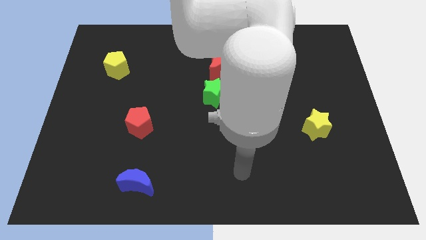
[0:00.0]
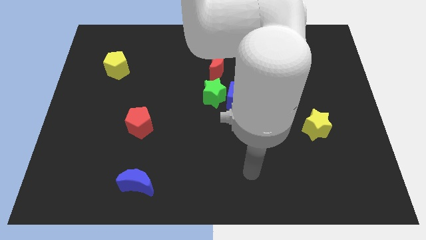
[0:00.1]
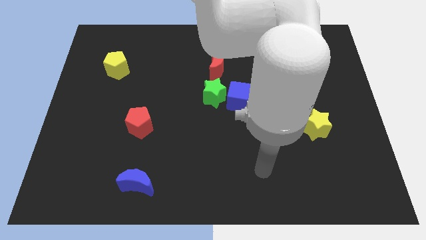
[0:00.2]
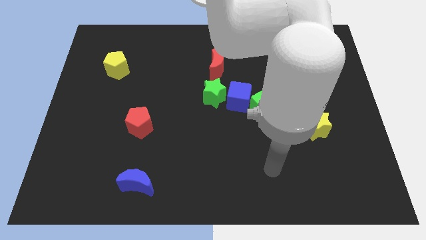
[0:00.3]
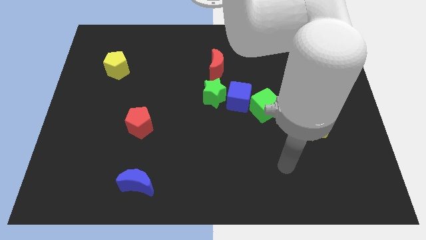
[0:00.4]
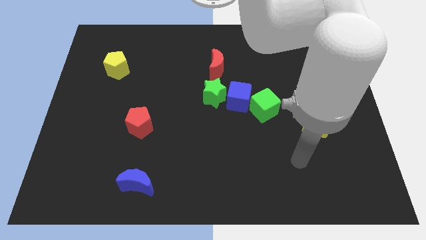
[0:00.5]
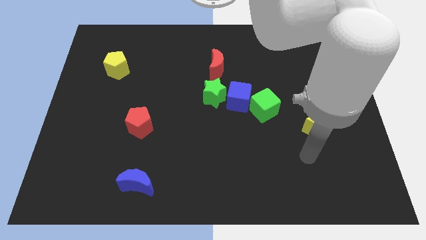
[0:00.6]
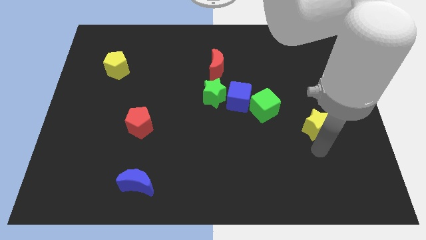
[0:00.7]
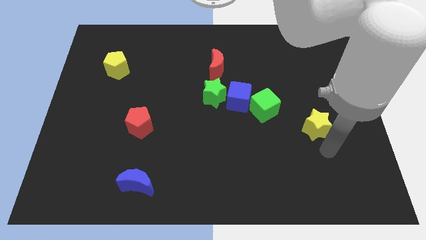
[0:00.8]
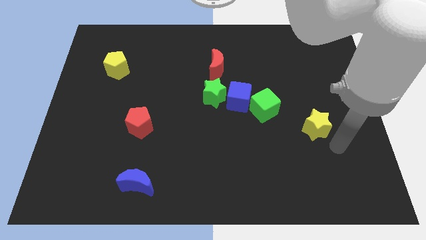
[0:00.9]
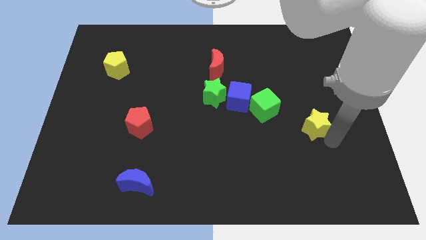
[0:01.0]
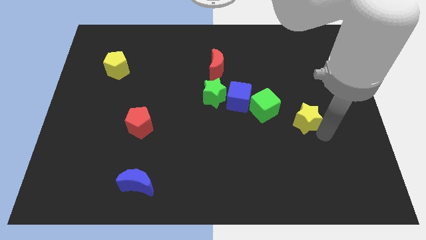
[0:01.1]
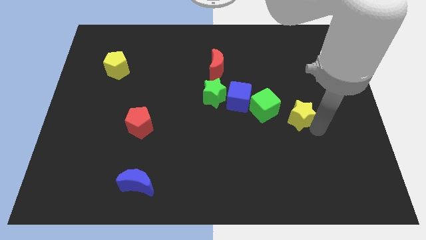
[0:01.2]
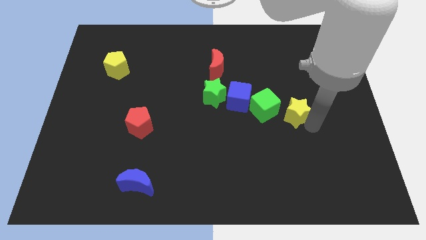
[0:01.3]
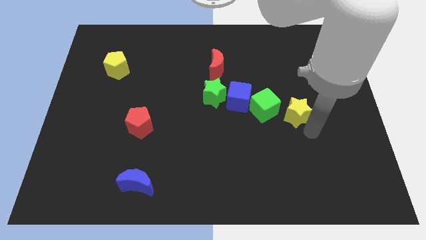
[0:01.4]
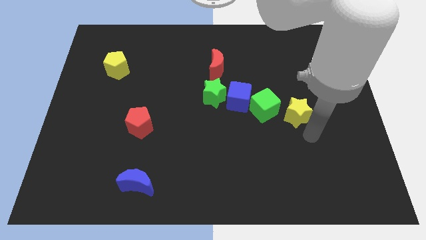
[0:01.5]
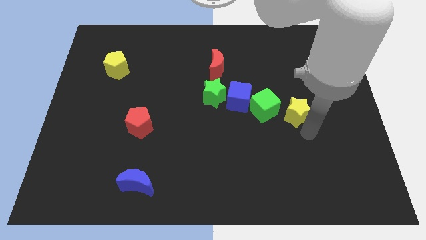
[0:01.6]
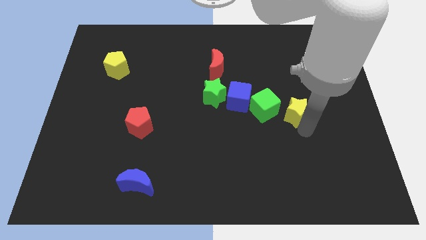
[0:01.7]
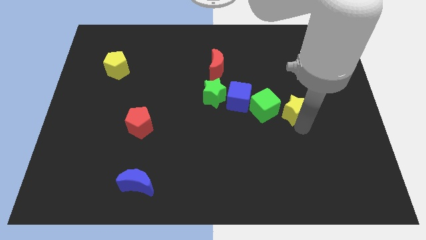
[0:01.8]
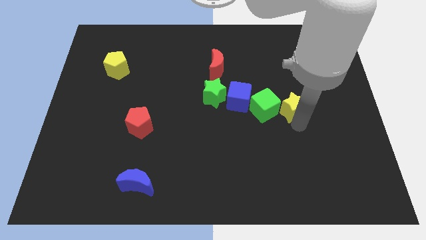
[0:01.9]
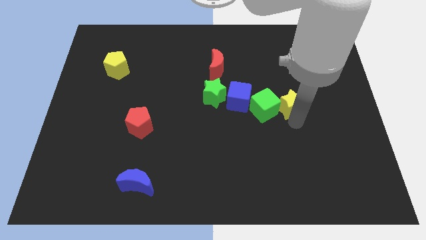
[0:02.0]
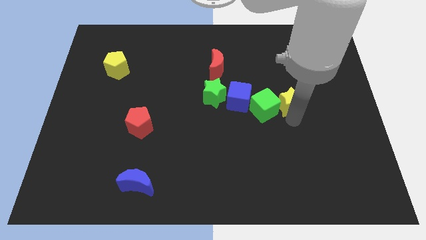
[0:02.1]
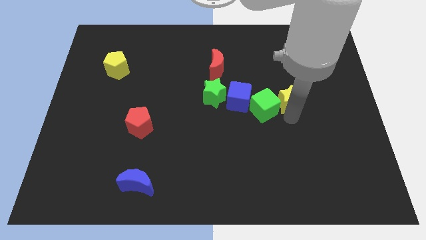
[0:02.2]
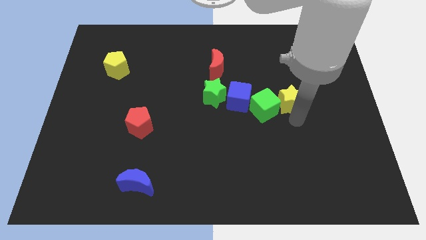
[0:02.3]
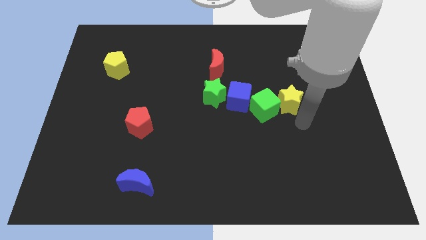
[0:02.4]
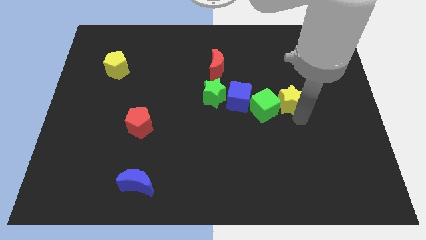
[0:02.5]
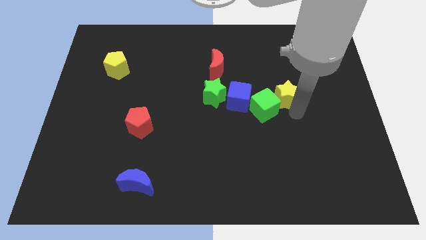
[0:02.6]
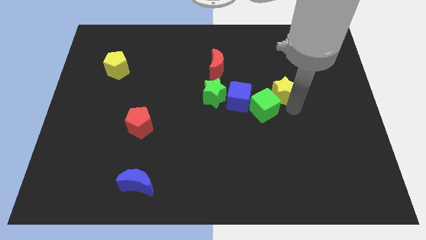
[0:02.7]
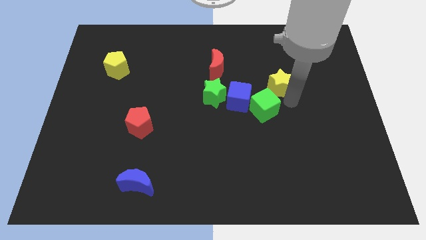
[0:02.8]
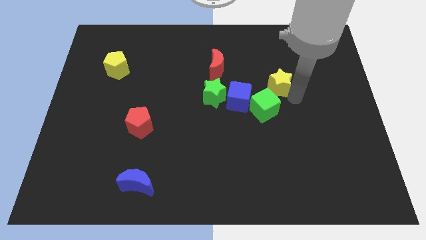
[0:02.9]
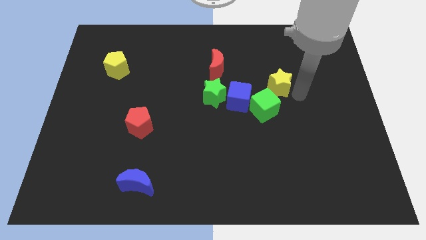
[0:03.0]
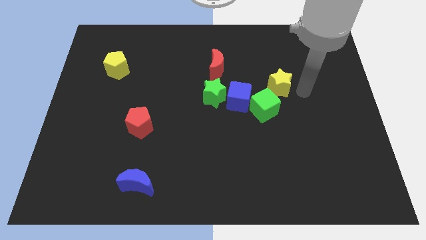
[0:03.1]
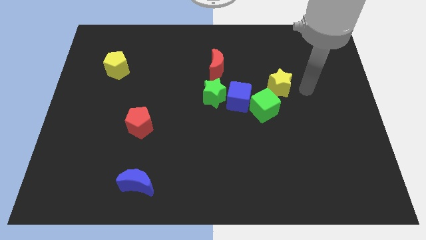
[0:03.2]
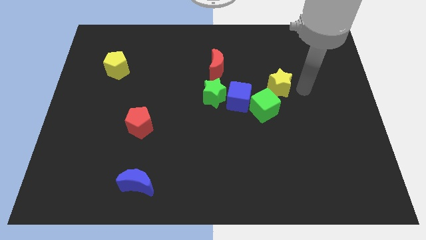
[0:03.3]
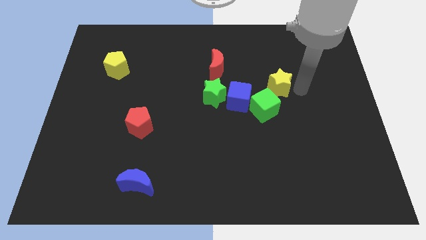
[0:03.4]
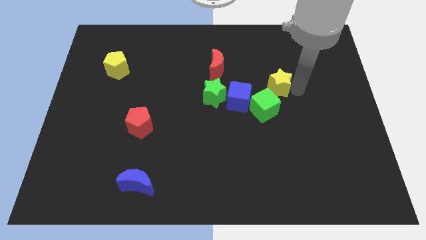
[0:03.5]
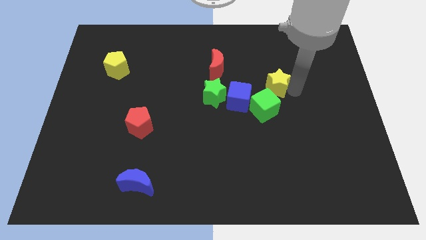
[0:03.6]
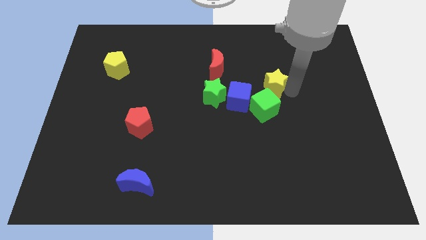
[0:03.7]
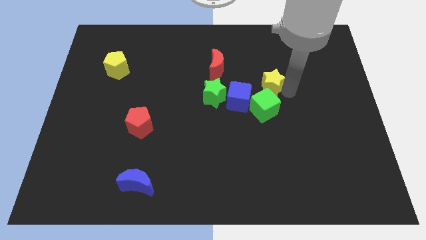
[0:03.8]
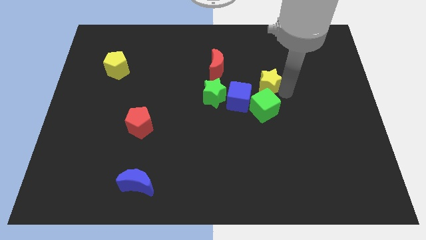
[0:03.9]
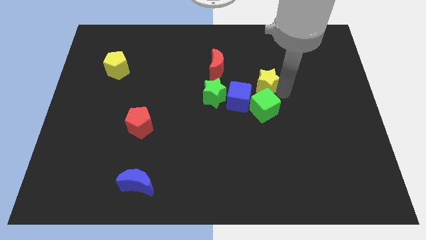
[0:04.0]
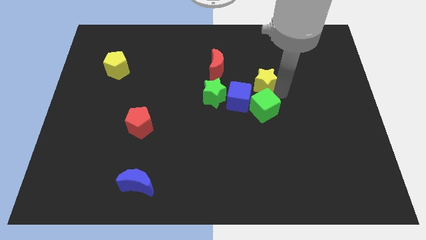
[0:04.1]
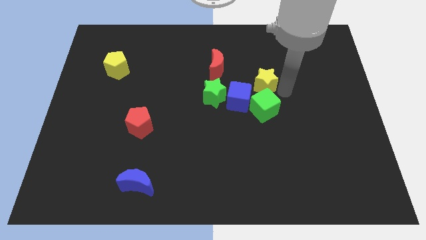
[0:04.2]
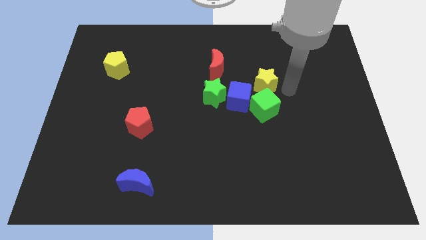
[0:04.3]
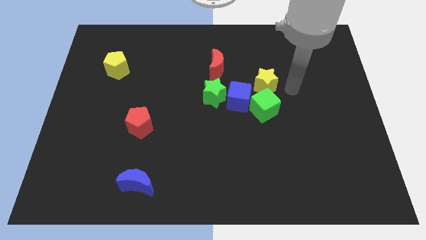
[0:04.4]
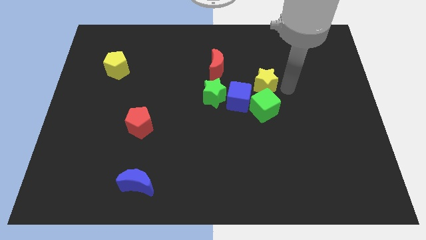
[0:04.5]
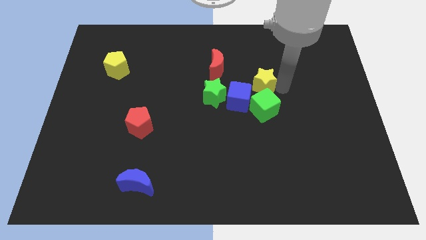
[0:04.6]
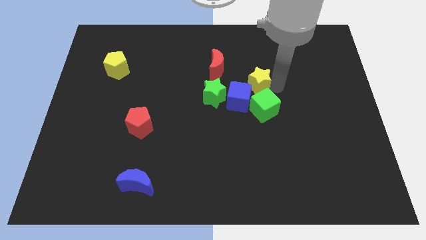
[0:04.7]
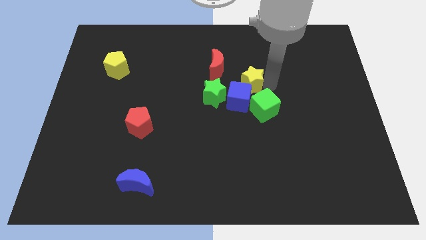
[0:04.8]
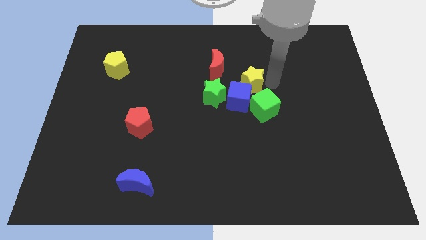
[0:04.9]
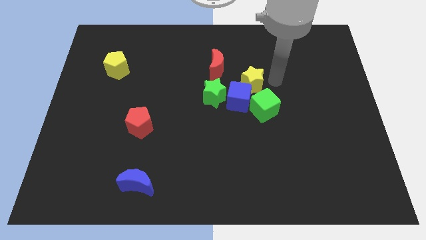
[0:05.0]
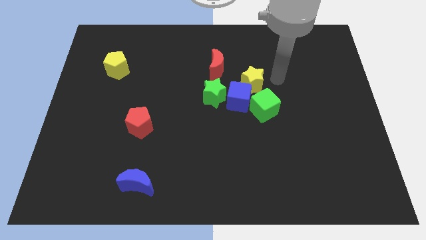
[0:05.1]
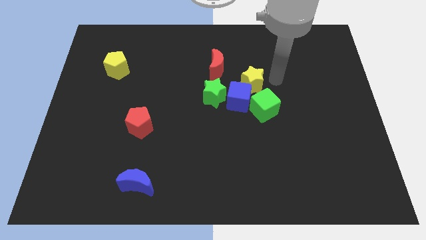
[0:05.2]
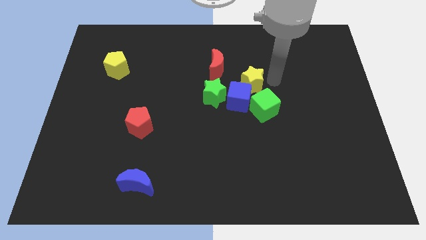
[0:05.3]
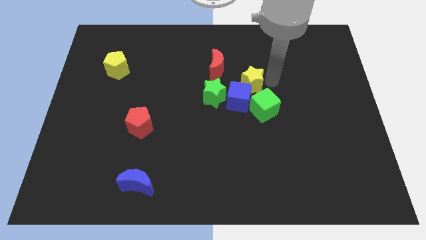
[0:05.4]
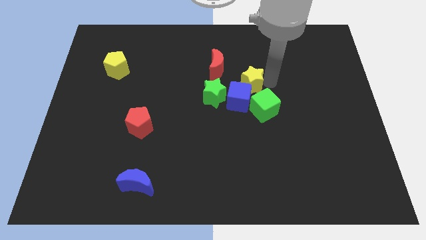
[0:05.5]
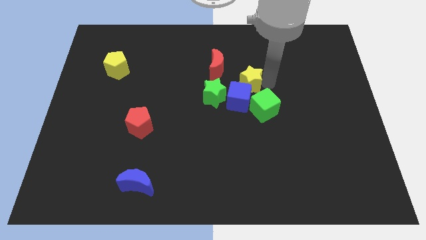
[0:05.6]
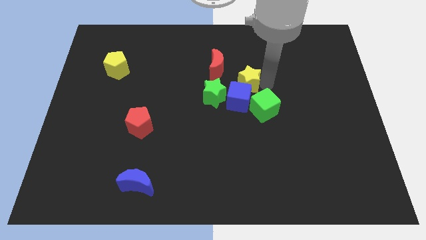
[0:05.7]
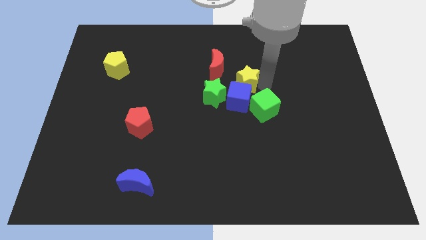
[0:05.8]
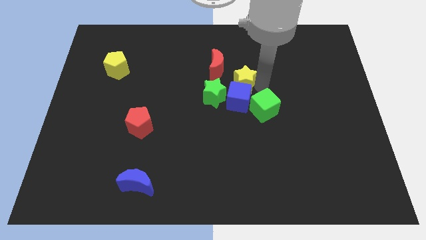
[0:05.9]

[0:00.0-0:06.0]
put the yellow star diagonally up and to the left of the blue cube

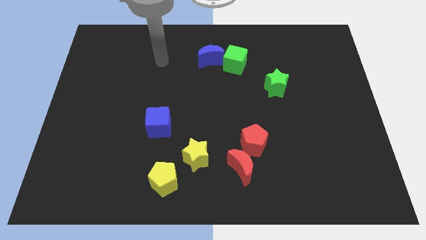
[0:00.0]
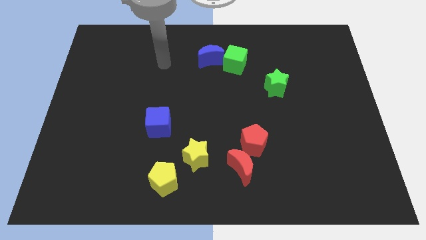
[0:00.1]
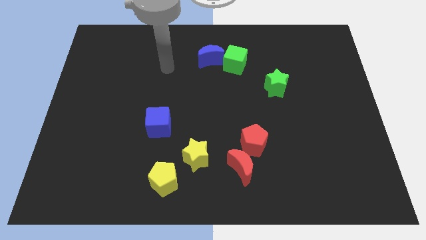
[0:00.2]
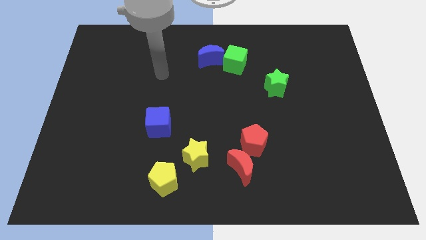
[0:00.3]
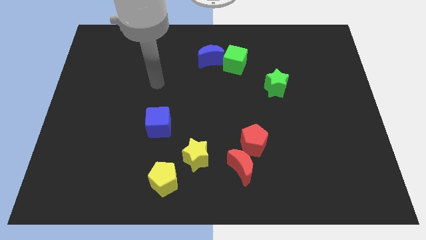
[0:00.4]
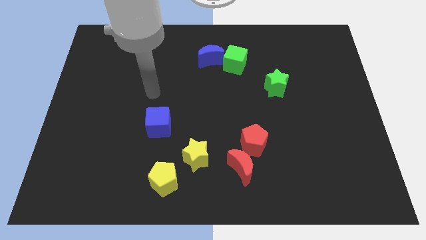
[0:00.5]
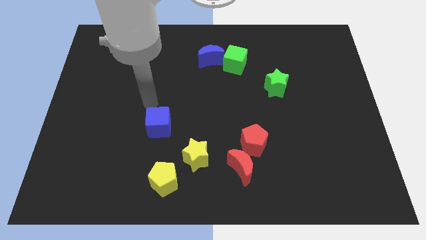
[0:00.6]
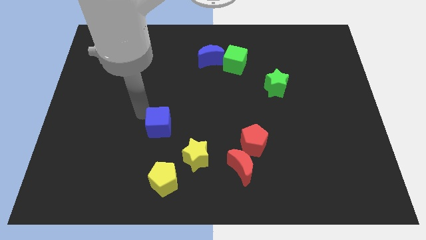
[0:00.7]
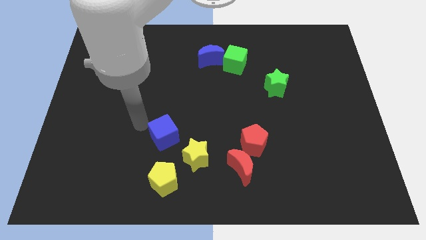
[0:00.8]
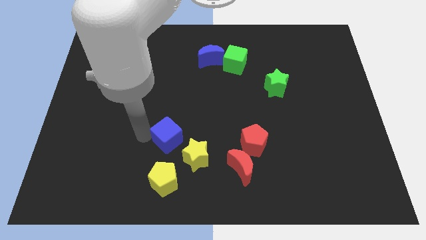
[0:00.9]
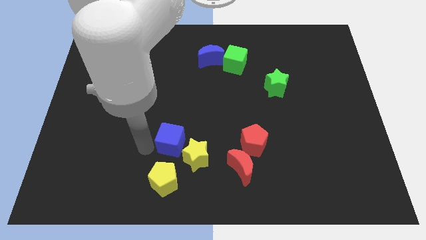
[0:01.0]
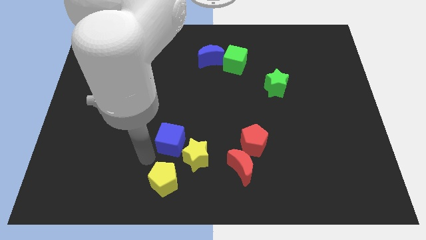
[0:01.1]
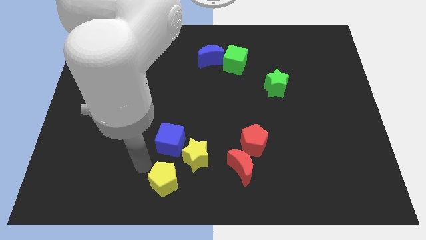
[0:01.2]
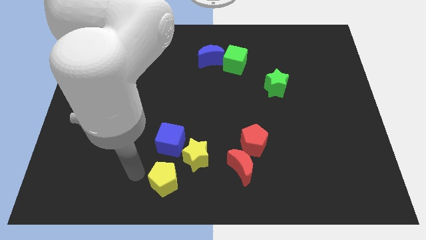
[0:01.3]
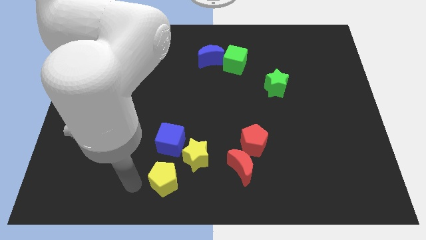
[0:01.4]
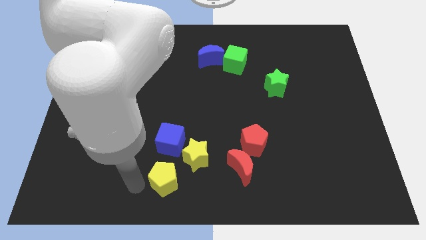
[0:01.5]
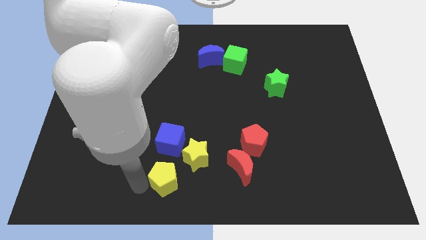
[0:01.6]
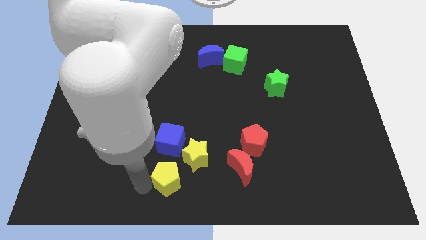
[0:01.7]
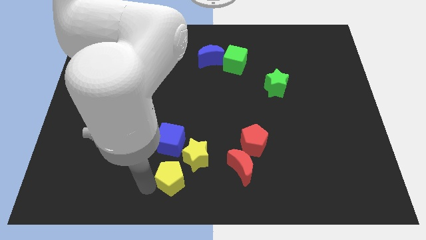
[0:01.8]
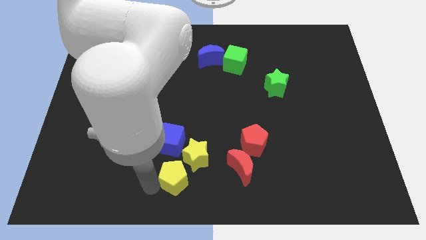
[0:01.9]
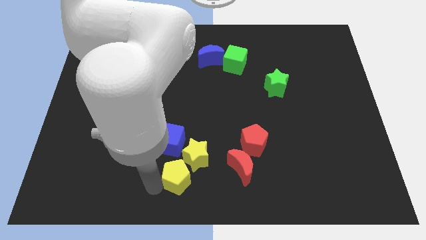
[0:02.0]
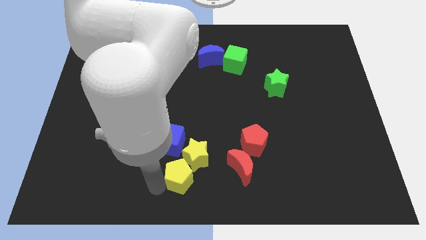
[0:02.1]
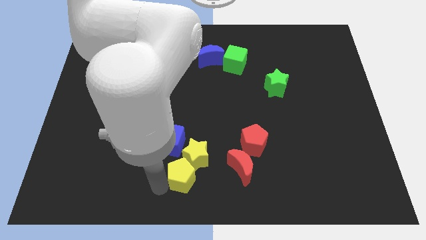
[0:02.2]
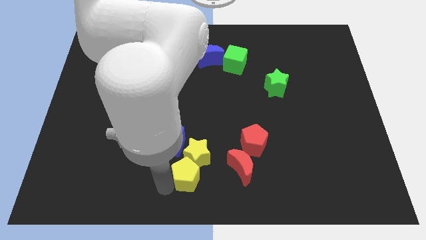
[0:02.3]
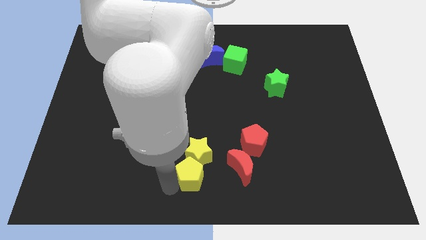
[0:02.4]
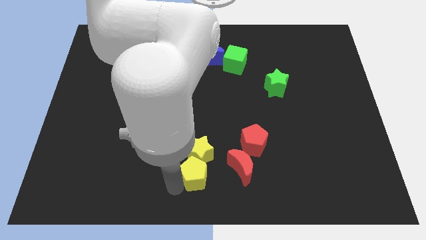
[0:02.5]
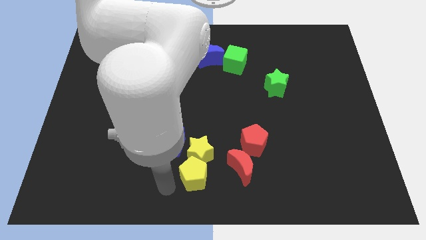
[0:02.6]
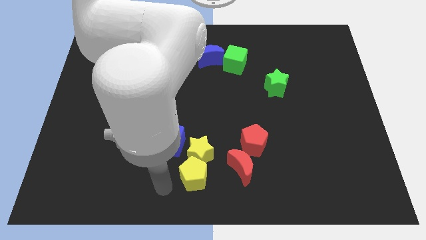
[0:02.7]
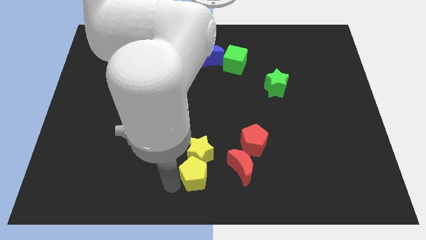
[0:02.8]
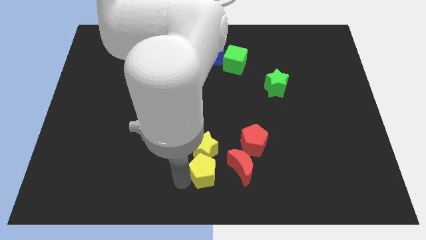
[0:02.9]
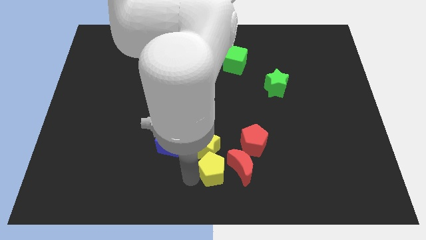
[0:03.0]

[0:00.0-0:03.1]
slide the yellow pentagon diagonally down and to the left of the red pentagon
